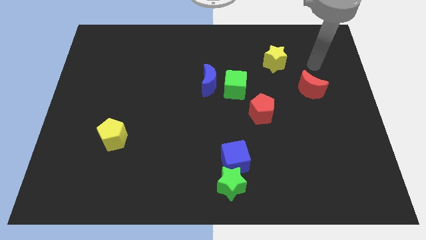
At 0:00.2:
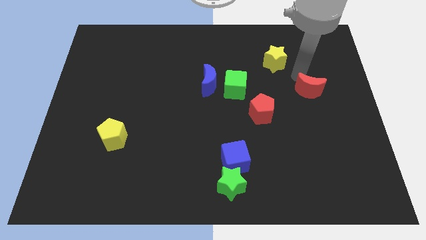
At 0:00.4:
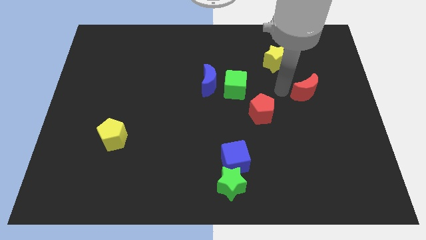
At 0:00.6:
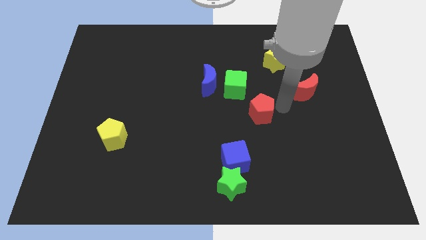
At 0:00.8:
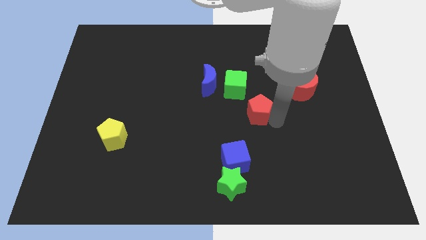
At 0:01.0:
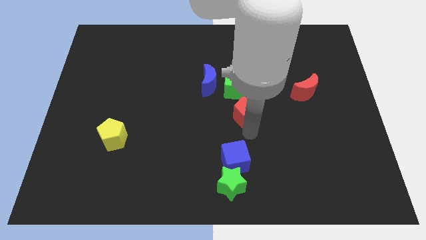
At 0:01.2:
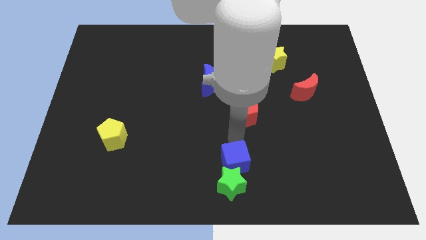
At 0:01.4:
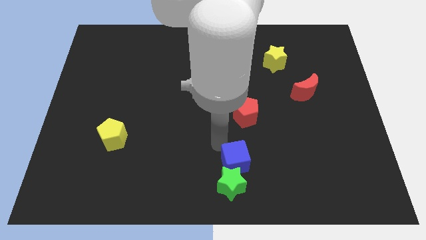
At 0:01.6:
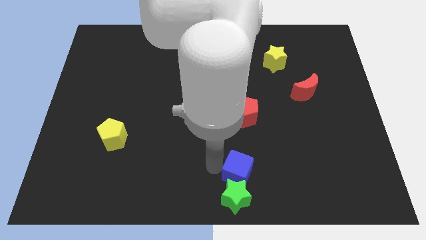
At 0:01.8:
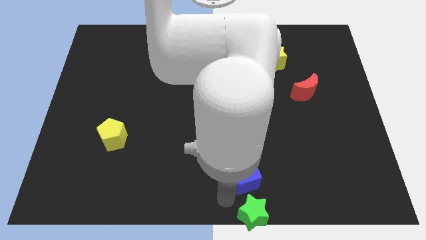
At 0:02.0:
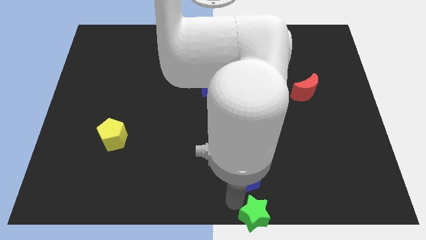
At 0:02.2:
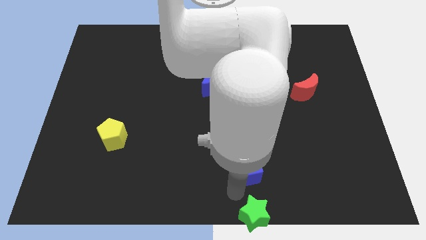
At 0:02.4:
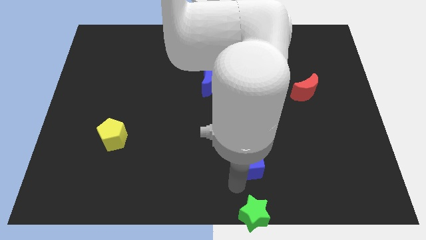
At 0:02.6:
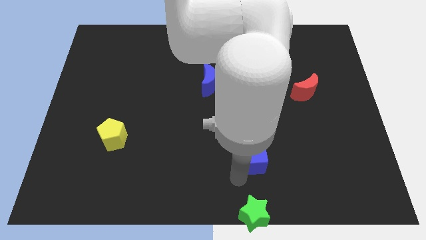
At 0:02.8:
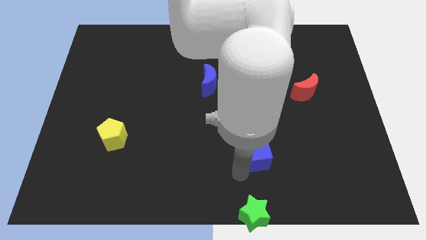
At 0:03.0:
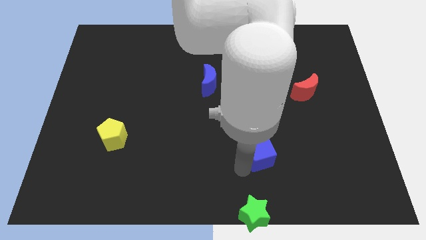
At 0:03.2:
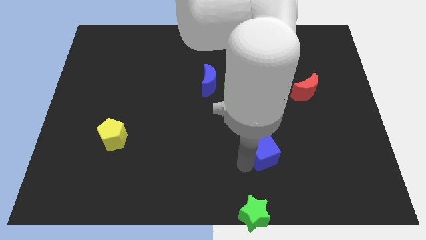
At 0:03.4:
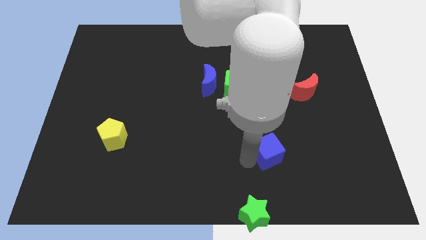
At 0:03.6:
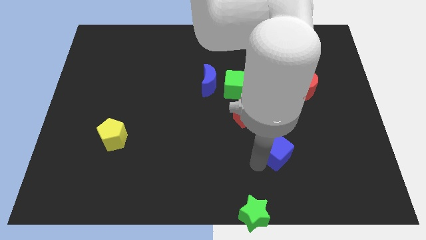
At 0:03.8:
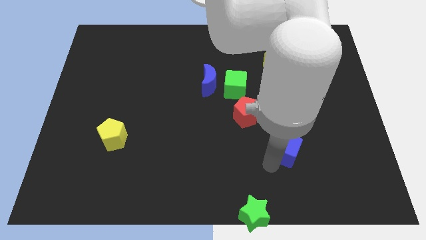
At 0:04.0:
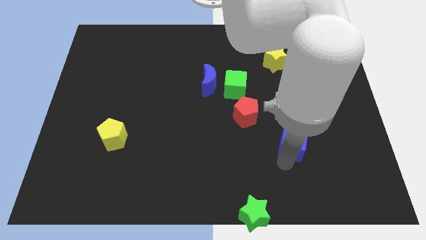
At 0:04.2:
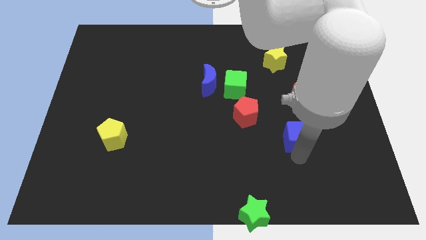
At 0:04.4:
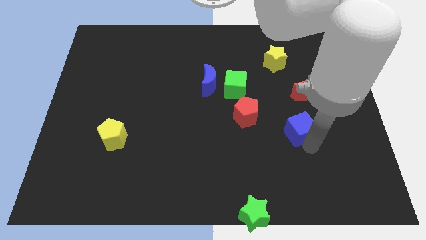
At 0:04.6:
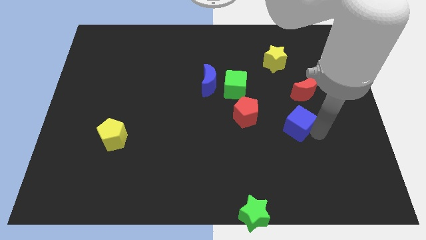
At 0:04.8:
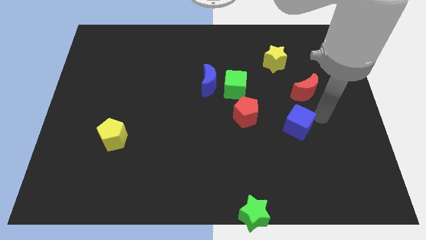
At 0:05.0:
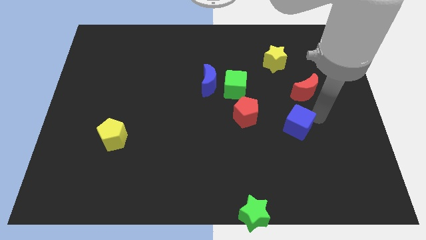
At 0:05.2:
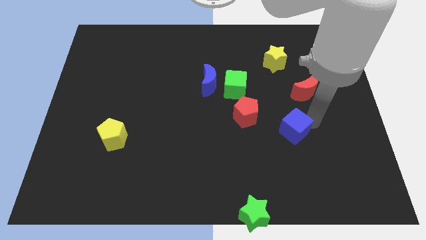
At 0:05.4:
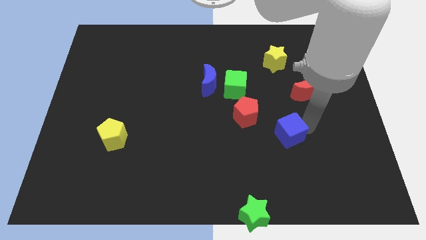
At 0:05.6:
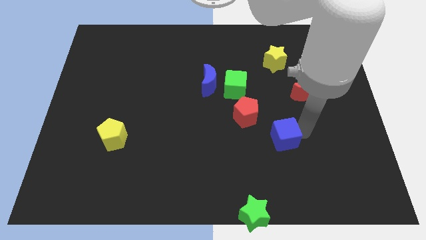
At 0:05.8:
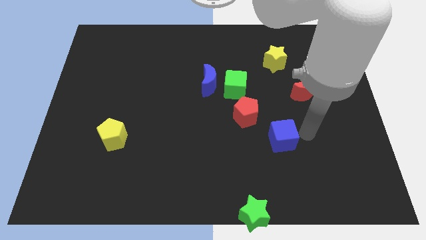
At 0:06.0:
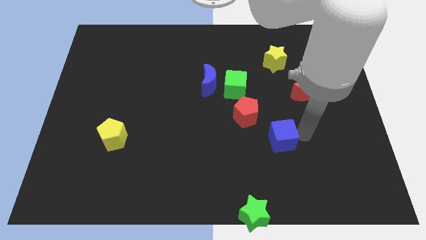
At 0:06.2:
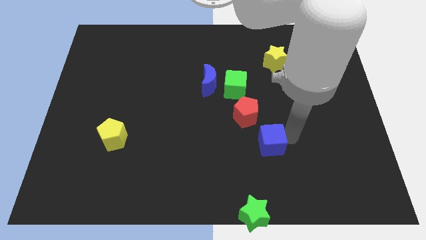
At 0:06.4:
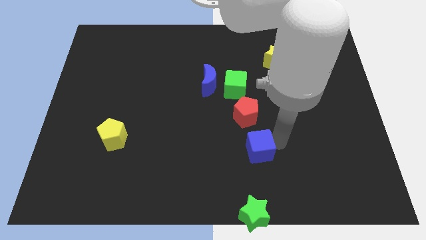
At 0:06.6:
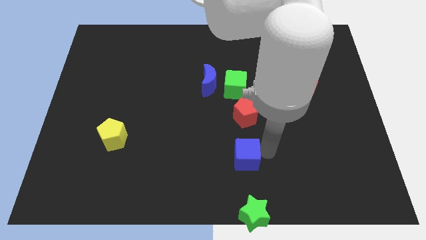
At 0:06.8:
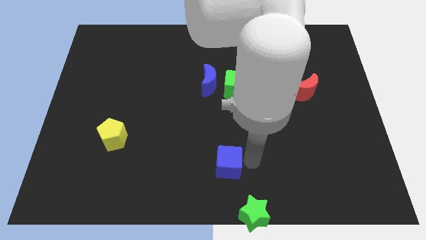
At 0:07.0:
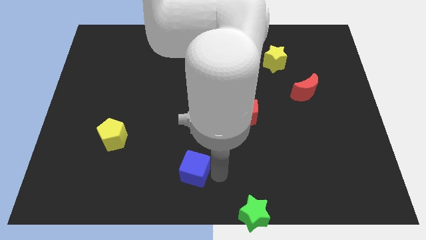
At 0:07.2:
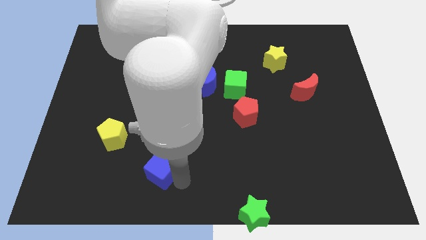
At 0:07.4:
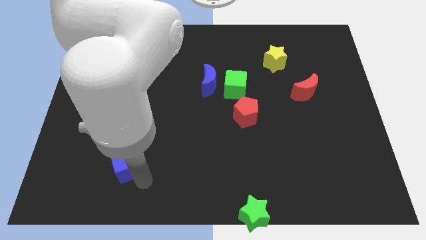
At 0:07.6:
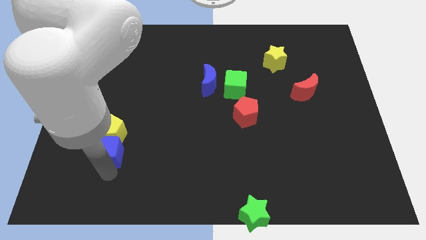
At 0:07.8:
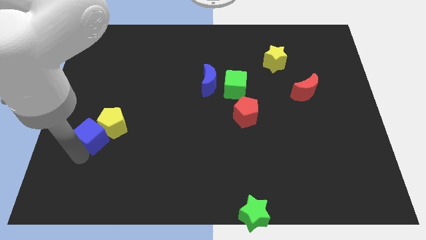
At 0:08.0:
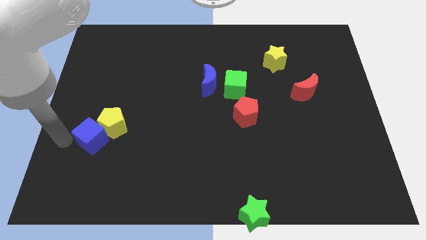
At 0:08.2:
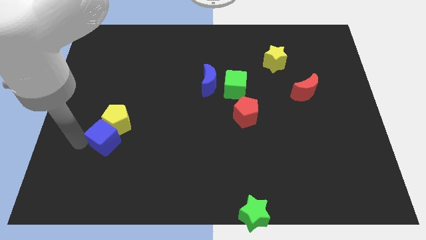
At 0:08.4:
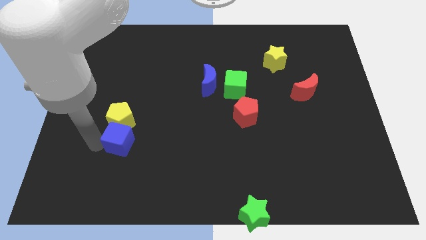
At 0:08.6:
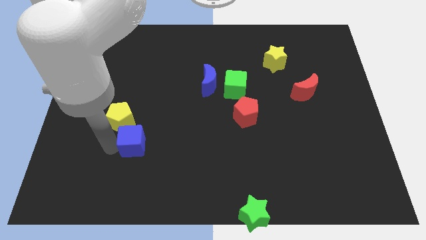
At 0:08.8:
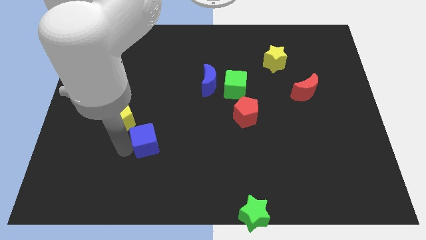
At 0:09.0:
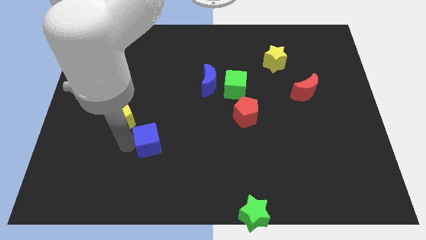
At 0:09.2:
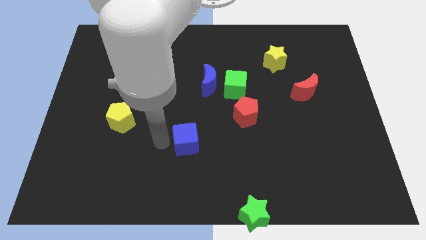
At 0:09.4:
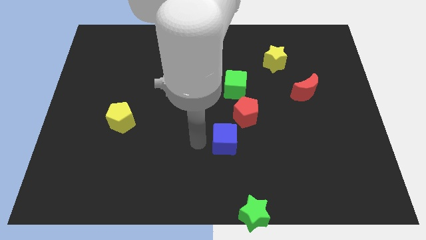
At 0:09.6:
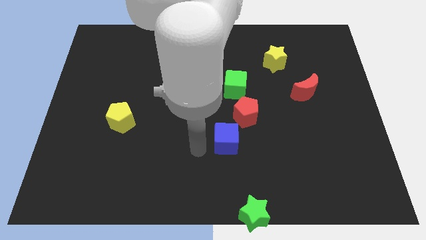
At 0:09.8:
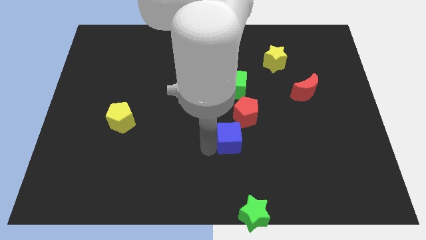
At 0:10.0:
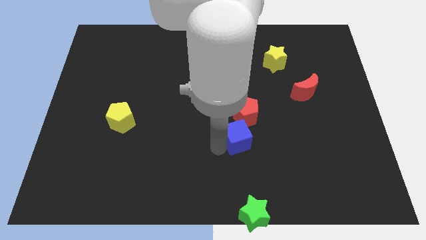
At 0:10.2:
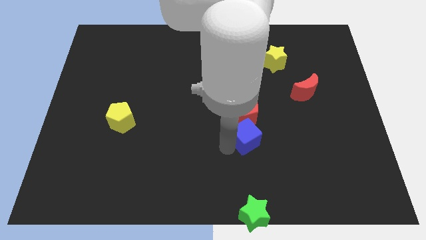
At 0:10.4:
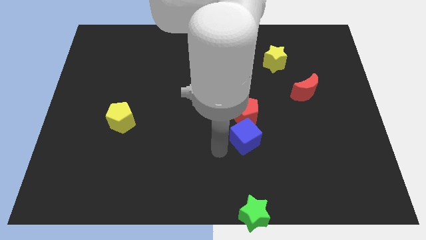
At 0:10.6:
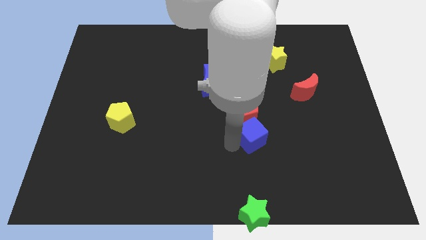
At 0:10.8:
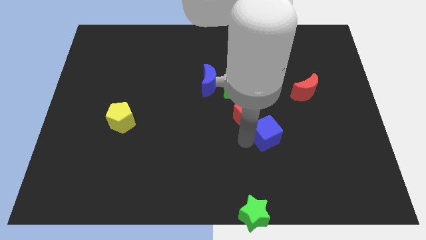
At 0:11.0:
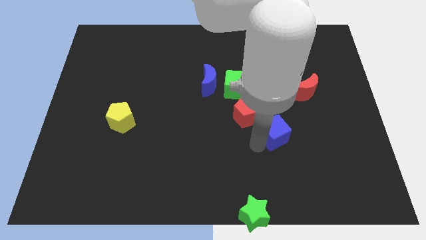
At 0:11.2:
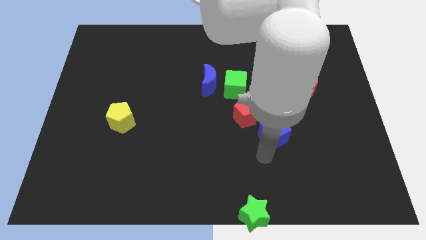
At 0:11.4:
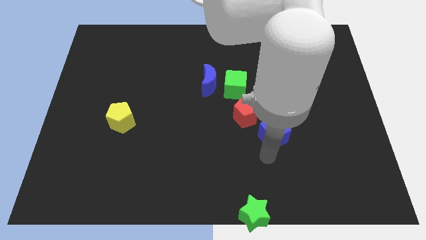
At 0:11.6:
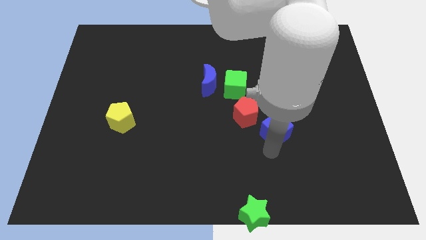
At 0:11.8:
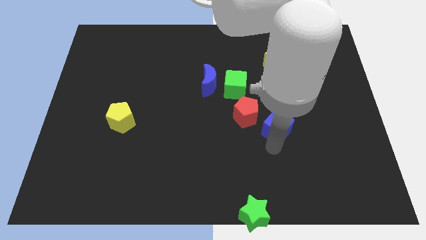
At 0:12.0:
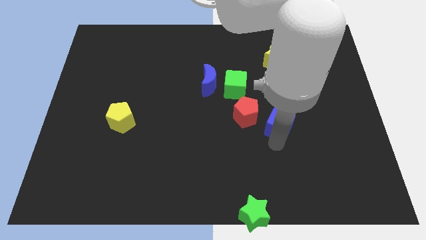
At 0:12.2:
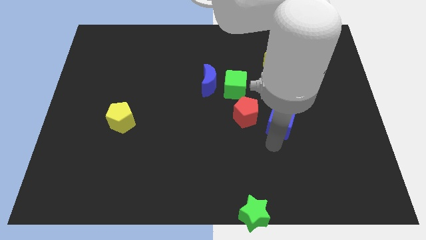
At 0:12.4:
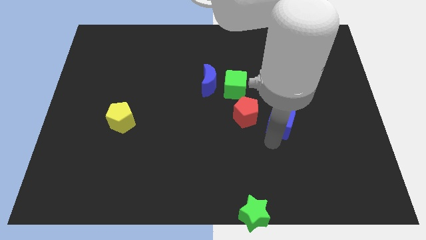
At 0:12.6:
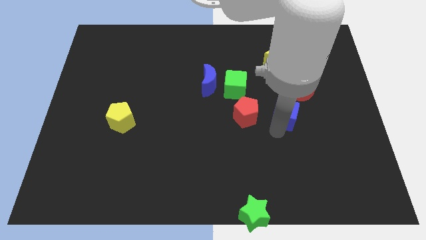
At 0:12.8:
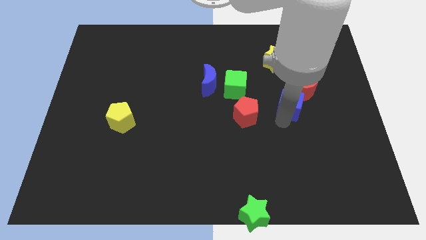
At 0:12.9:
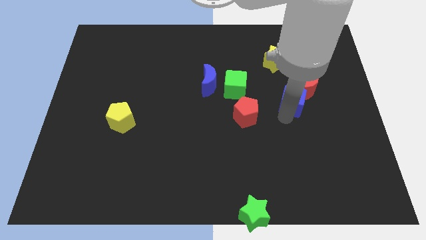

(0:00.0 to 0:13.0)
move the blue cube up and to the right diagonally

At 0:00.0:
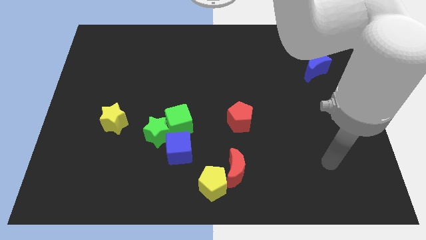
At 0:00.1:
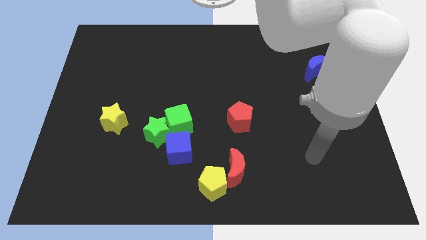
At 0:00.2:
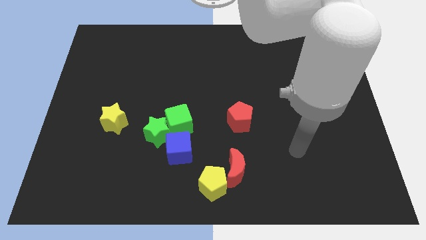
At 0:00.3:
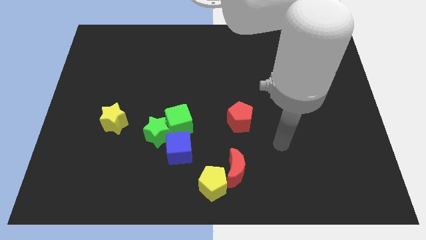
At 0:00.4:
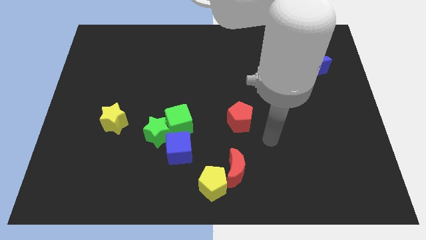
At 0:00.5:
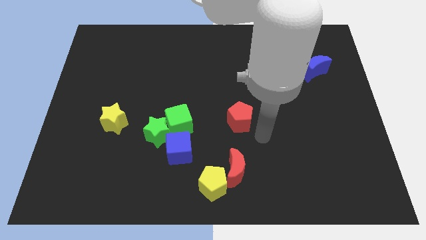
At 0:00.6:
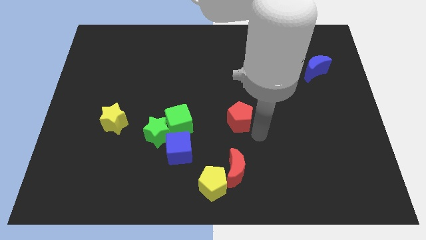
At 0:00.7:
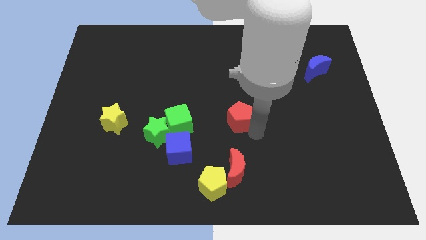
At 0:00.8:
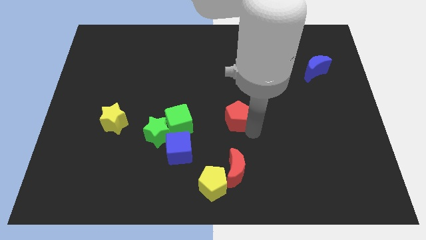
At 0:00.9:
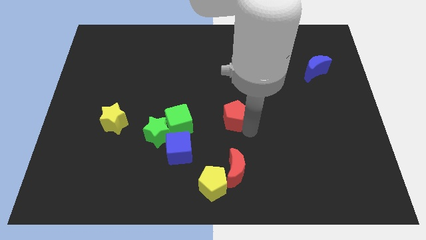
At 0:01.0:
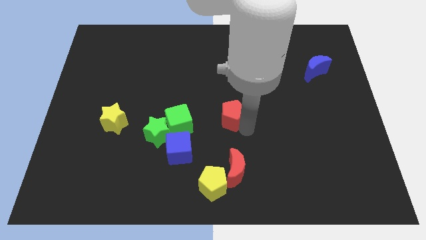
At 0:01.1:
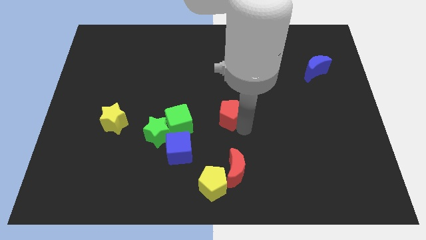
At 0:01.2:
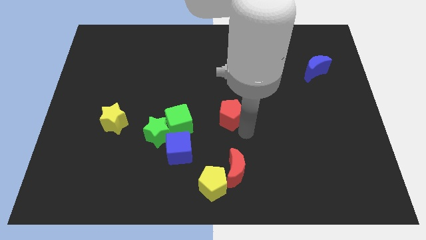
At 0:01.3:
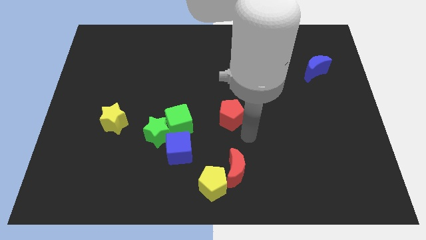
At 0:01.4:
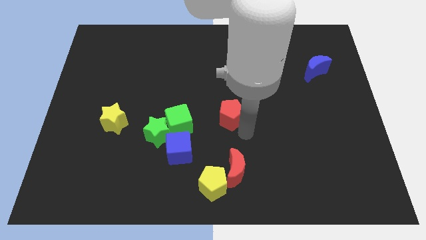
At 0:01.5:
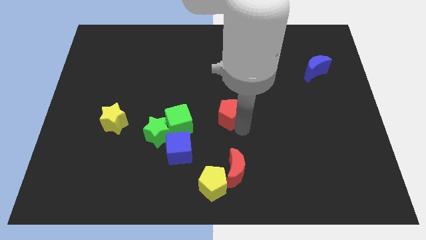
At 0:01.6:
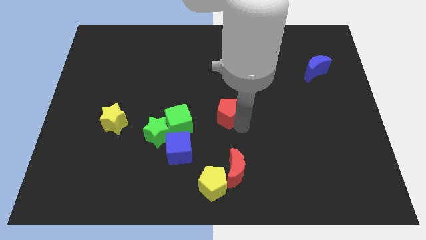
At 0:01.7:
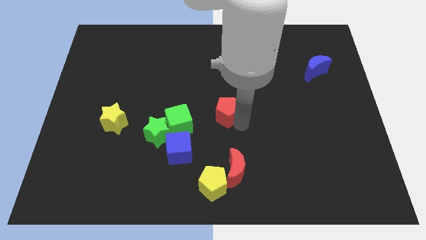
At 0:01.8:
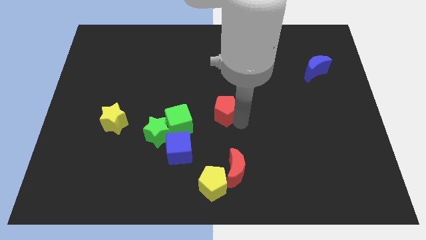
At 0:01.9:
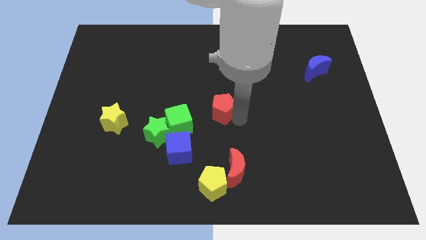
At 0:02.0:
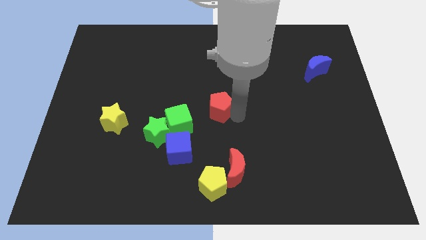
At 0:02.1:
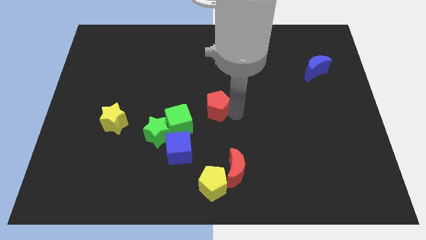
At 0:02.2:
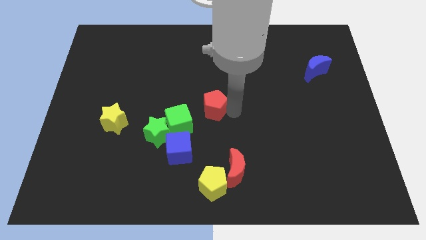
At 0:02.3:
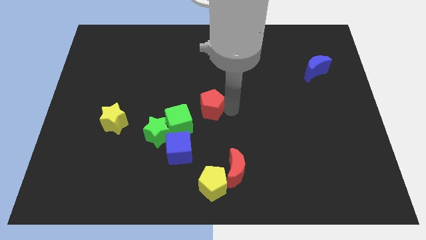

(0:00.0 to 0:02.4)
move the red pentagon slightly upwards and left diagonally
